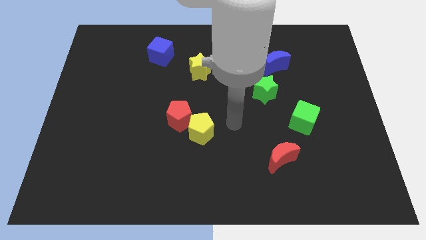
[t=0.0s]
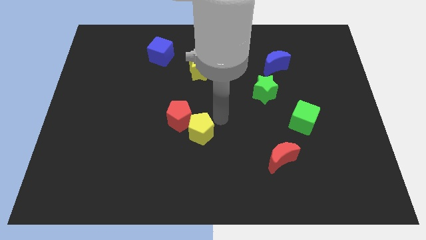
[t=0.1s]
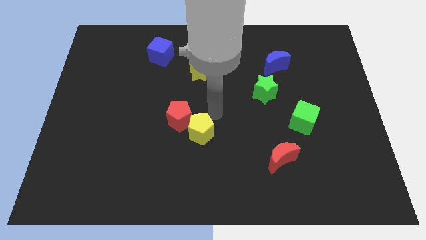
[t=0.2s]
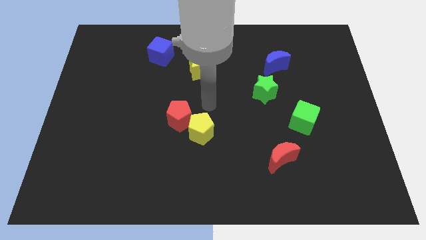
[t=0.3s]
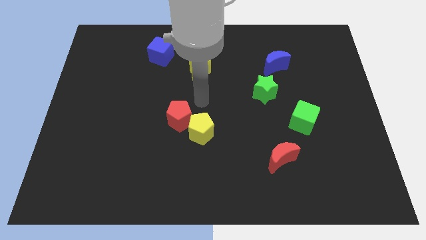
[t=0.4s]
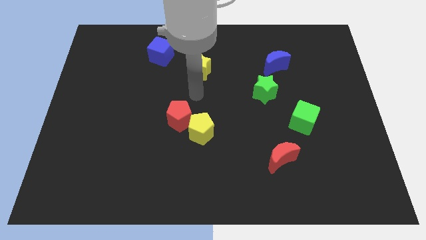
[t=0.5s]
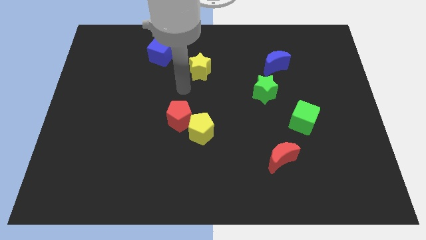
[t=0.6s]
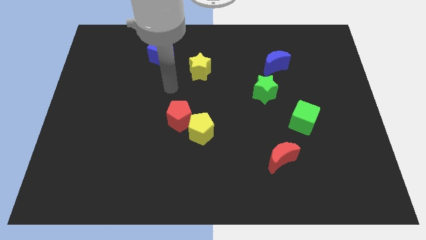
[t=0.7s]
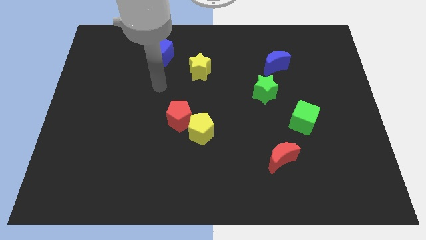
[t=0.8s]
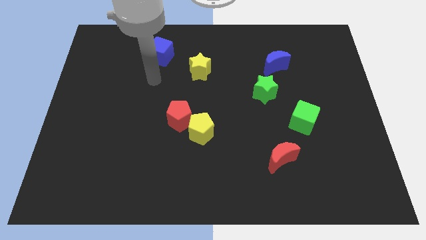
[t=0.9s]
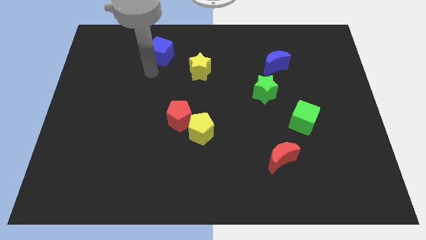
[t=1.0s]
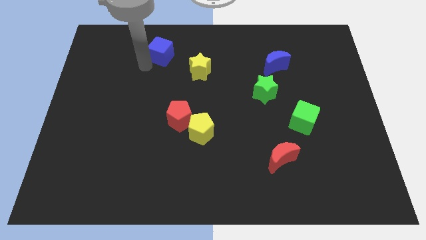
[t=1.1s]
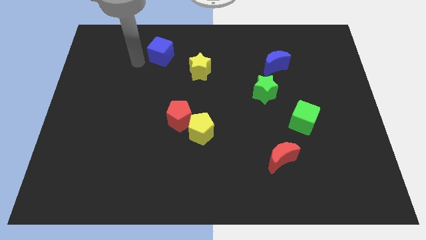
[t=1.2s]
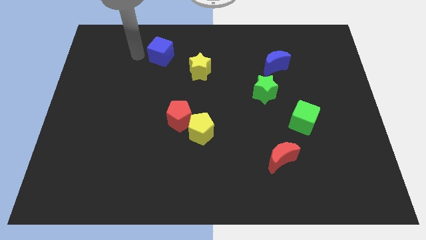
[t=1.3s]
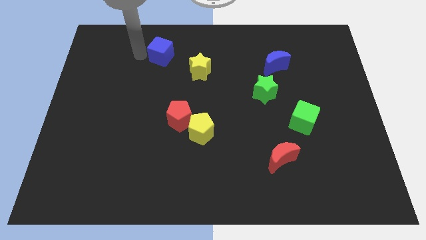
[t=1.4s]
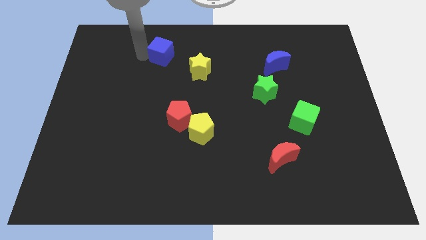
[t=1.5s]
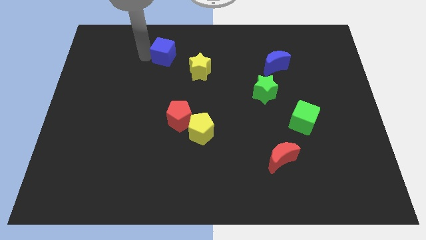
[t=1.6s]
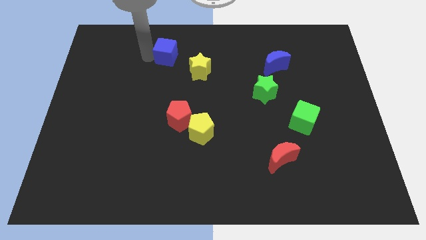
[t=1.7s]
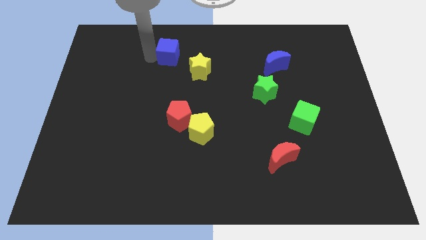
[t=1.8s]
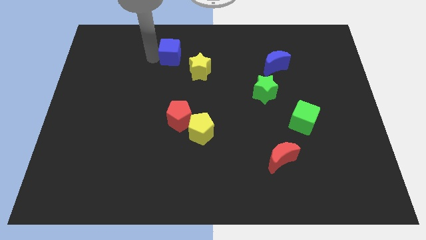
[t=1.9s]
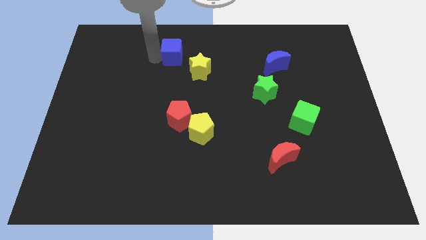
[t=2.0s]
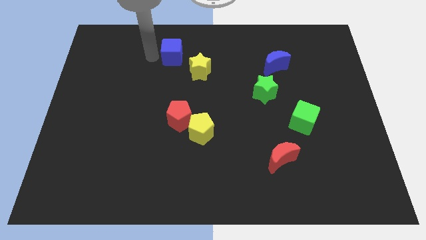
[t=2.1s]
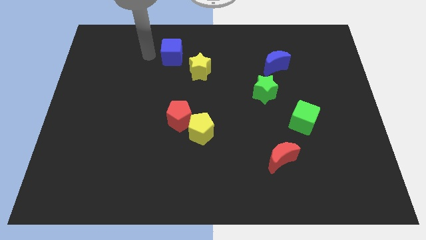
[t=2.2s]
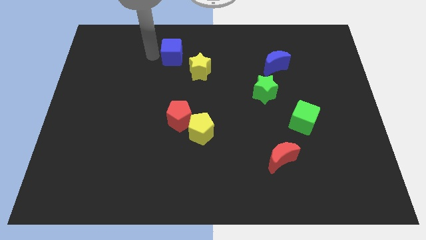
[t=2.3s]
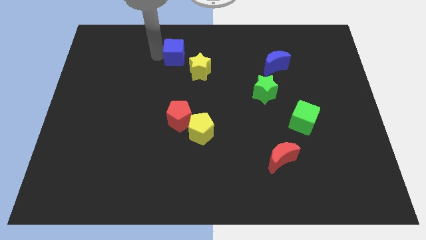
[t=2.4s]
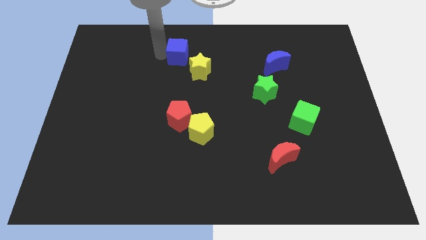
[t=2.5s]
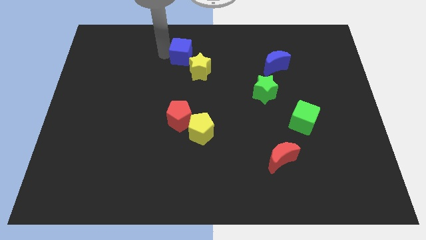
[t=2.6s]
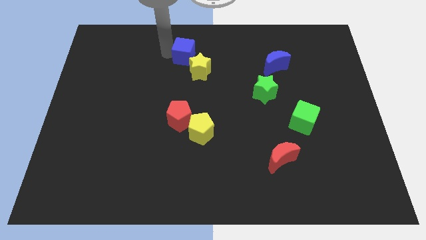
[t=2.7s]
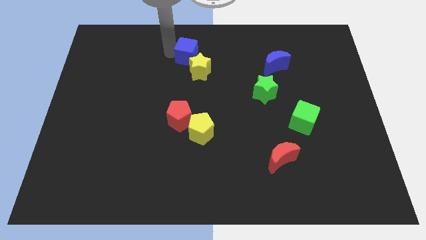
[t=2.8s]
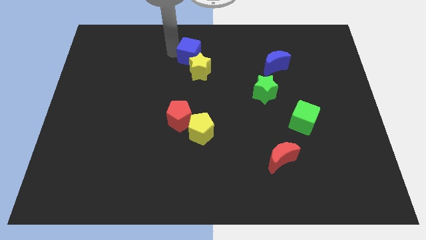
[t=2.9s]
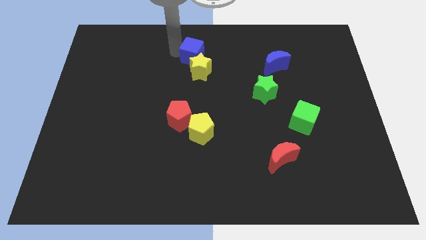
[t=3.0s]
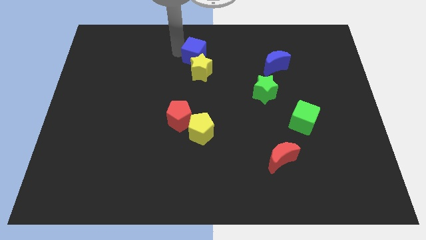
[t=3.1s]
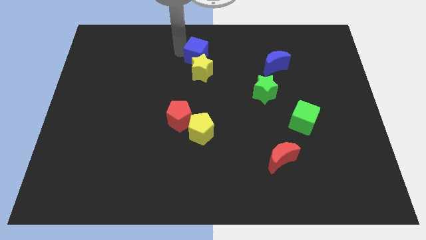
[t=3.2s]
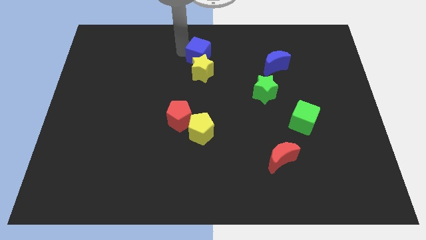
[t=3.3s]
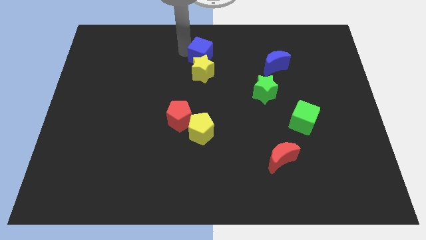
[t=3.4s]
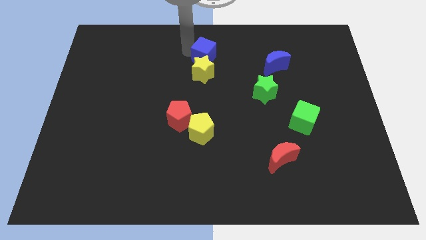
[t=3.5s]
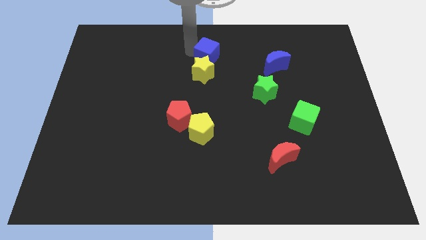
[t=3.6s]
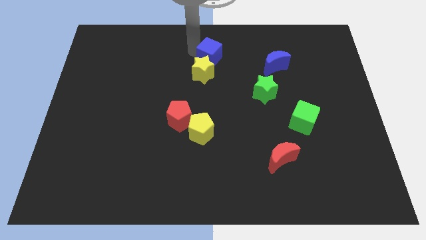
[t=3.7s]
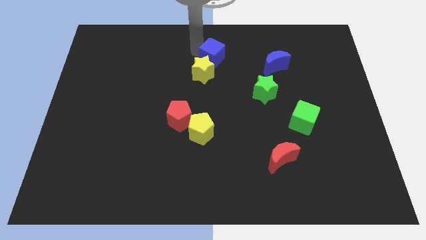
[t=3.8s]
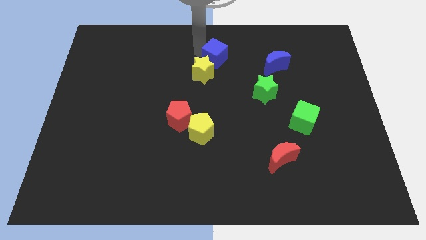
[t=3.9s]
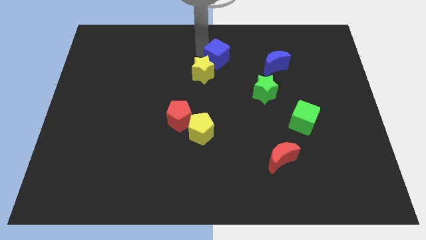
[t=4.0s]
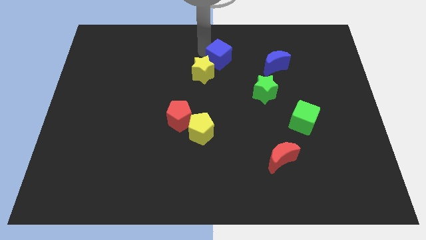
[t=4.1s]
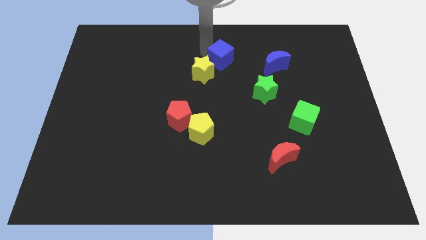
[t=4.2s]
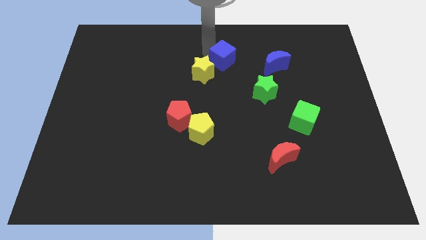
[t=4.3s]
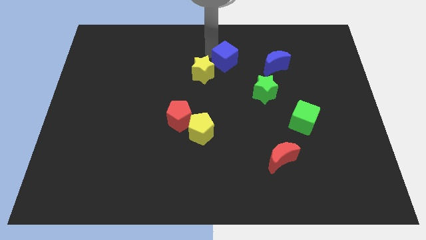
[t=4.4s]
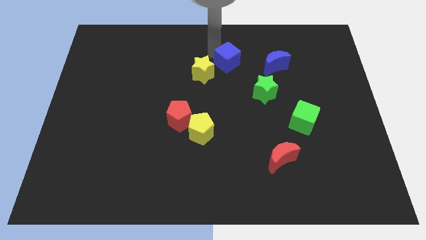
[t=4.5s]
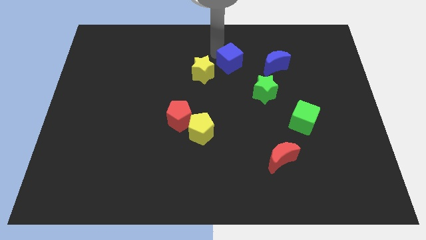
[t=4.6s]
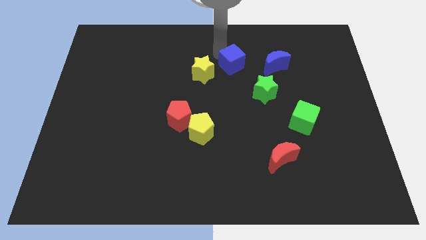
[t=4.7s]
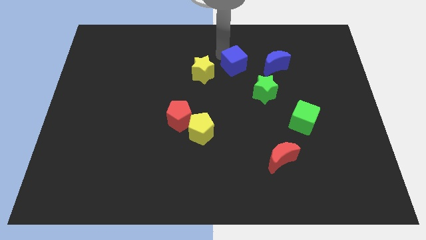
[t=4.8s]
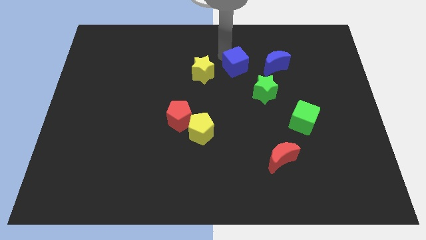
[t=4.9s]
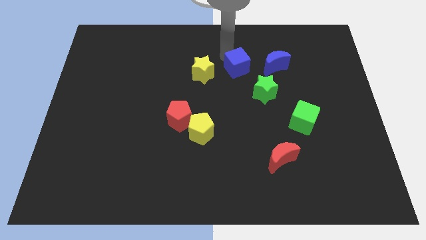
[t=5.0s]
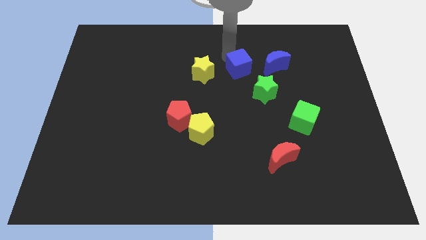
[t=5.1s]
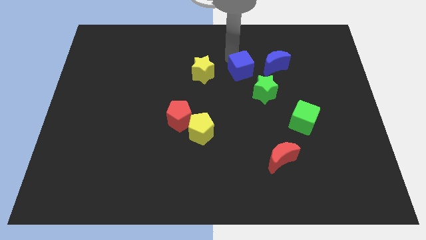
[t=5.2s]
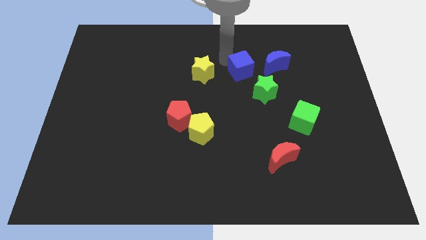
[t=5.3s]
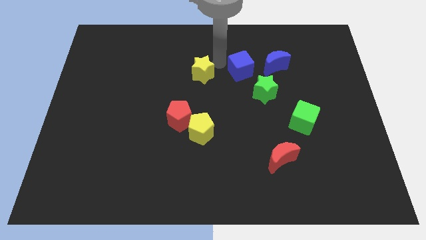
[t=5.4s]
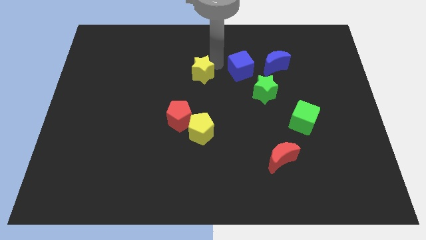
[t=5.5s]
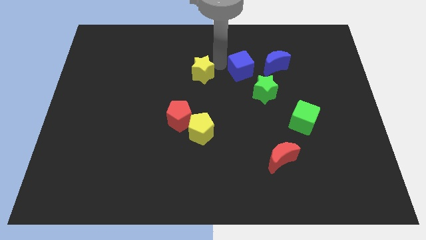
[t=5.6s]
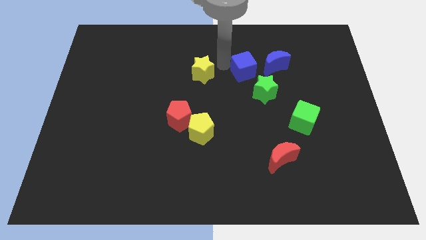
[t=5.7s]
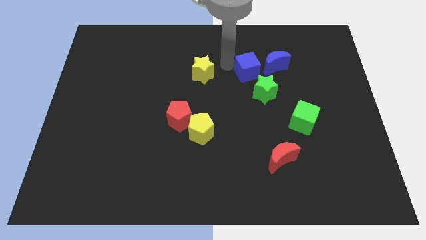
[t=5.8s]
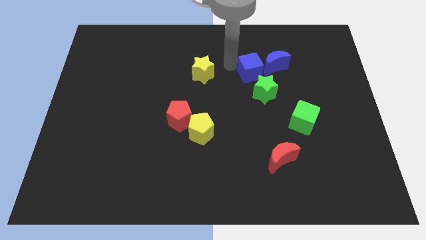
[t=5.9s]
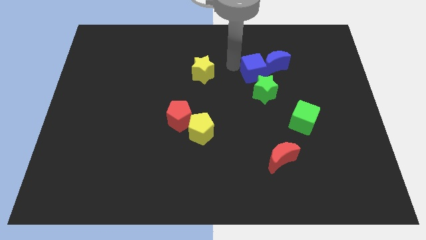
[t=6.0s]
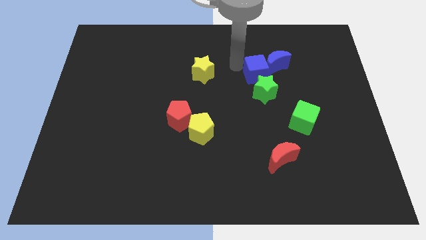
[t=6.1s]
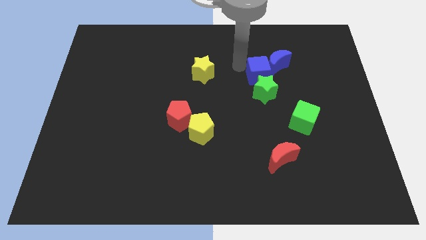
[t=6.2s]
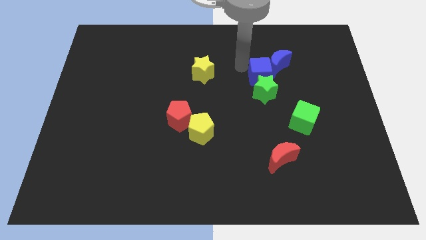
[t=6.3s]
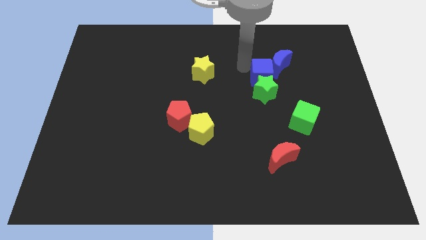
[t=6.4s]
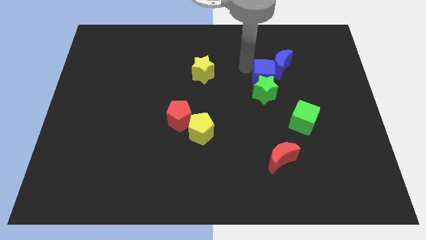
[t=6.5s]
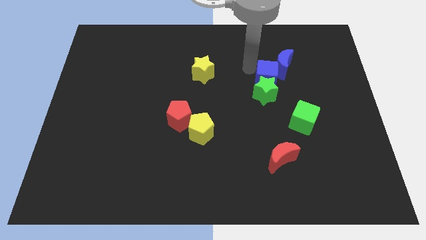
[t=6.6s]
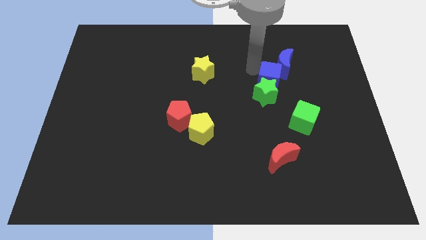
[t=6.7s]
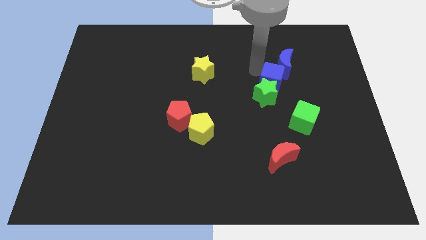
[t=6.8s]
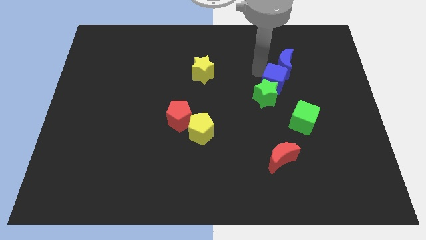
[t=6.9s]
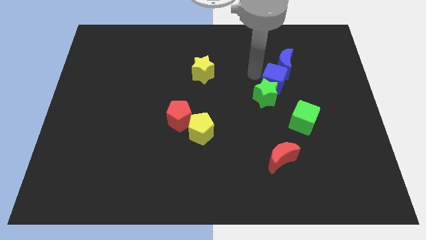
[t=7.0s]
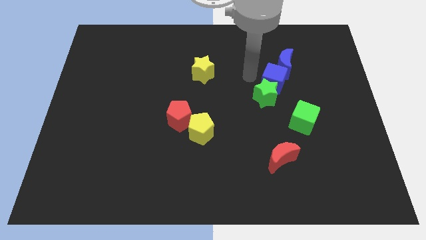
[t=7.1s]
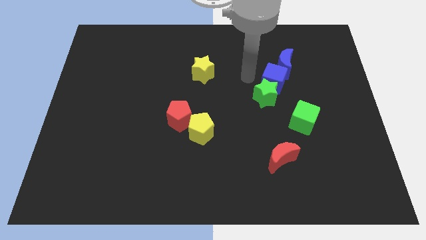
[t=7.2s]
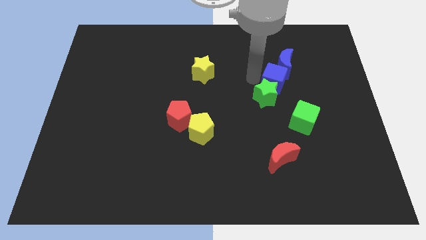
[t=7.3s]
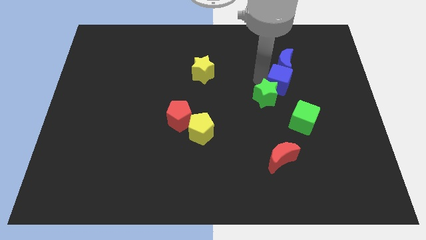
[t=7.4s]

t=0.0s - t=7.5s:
move the blue cube to the top of the green cube
